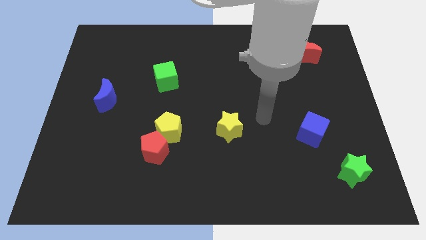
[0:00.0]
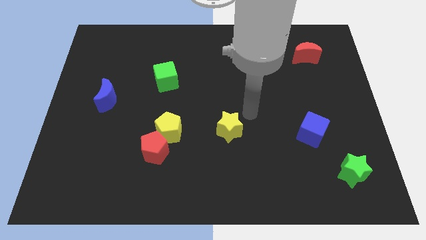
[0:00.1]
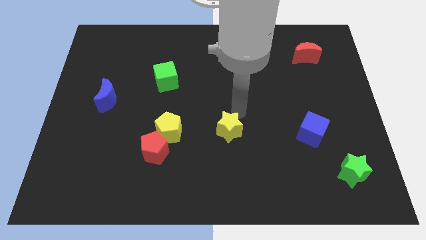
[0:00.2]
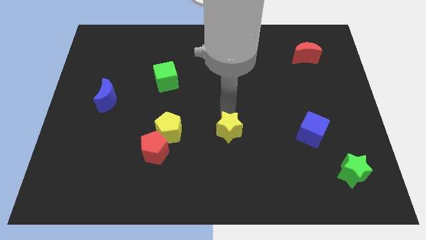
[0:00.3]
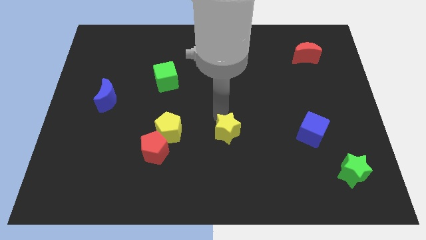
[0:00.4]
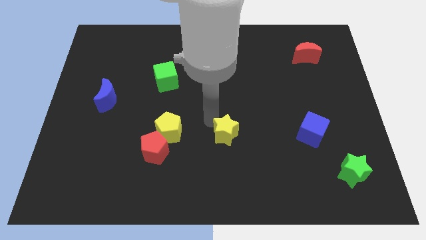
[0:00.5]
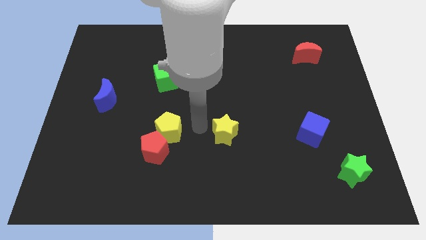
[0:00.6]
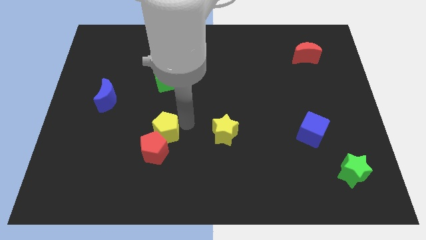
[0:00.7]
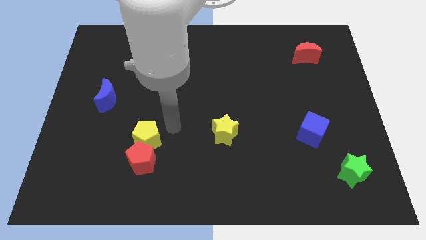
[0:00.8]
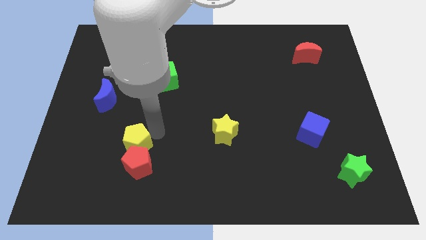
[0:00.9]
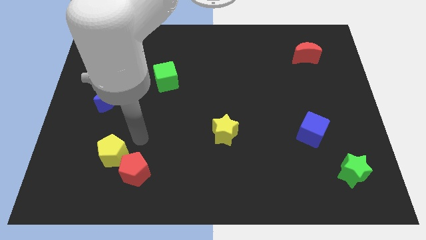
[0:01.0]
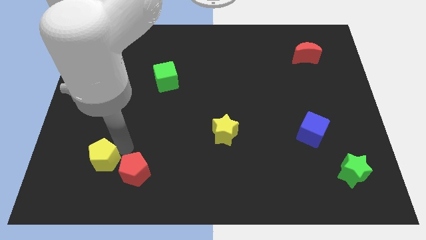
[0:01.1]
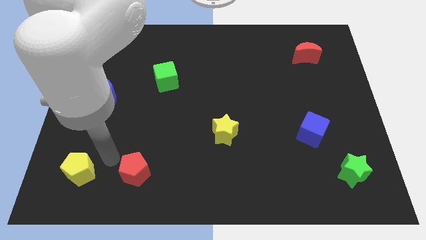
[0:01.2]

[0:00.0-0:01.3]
move the red pentagon away from the yellow pentagon

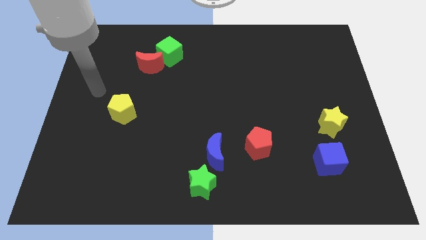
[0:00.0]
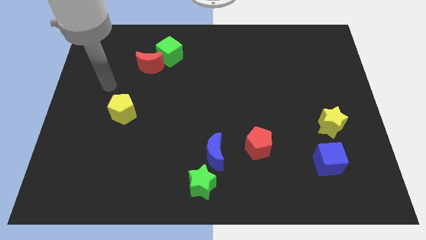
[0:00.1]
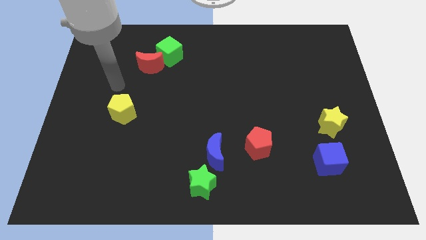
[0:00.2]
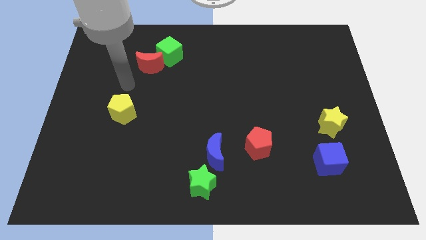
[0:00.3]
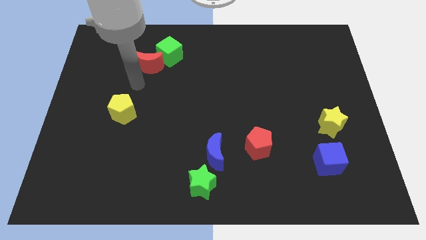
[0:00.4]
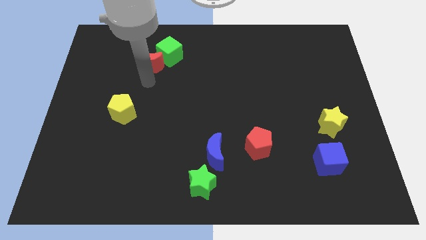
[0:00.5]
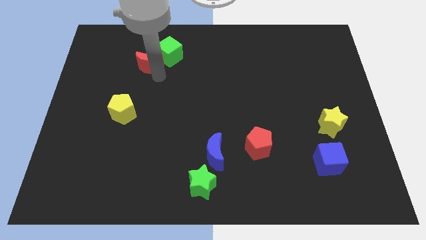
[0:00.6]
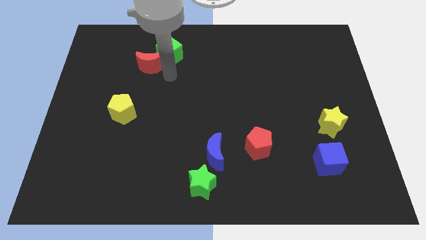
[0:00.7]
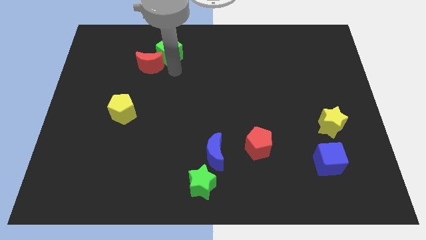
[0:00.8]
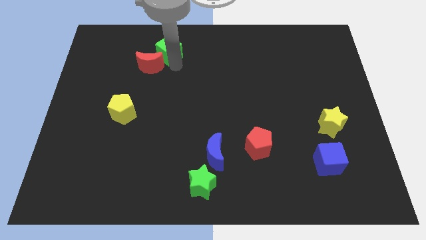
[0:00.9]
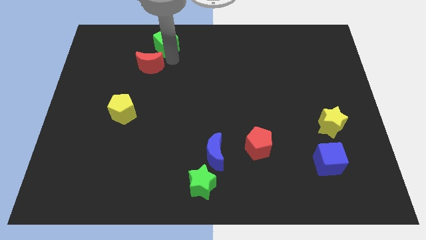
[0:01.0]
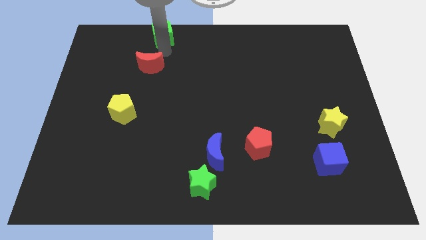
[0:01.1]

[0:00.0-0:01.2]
move the red moon away from the green cube

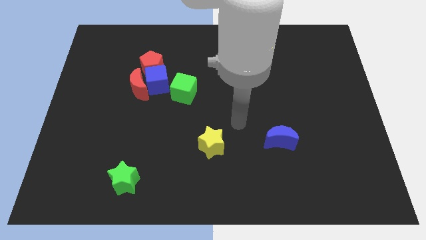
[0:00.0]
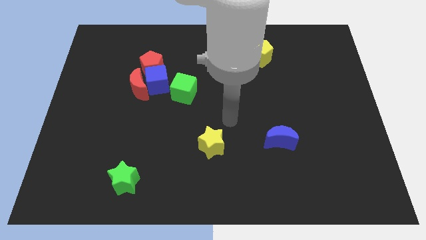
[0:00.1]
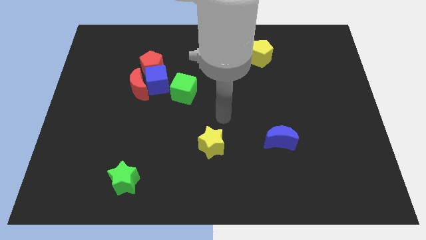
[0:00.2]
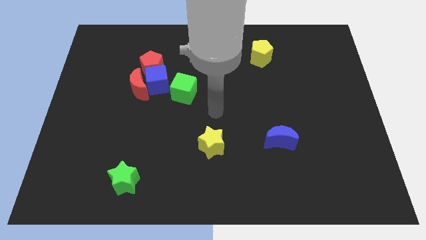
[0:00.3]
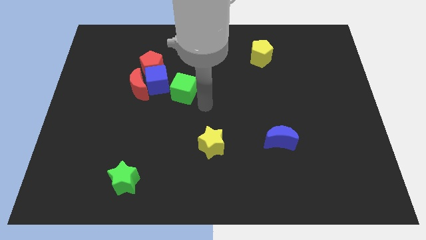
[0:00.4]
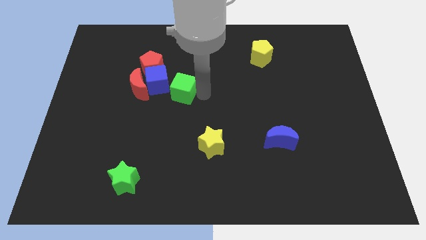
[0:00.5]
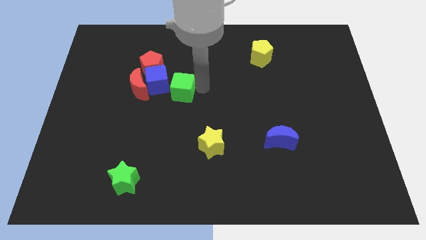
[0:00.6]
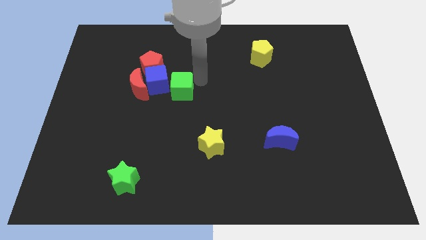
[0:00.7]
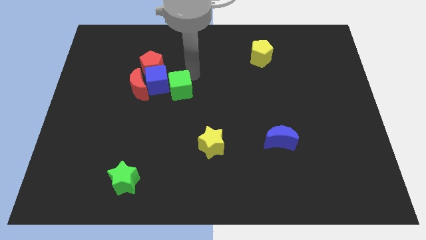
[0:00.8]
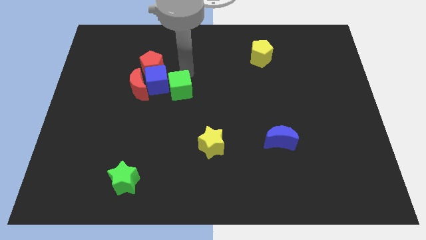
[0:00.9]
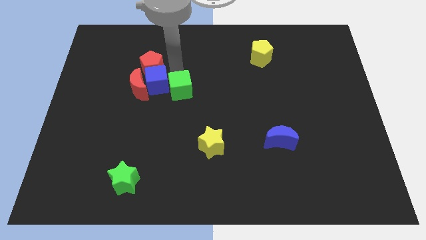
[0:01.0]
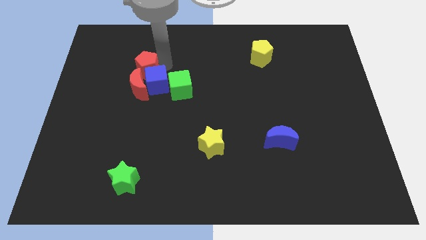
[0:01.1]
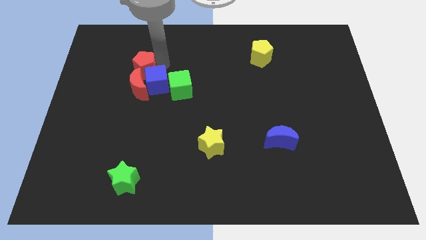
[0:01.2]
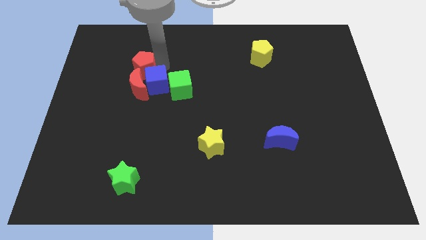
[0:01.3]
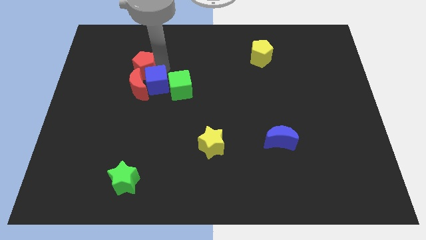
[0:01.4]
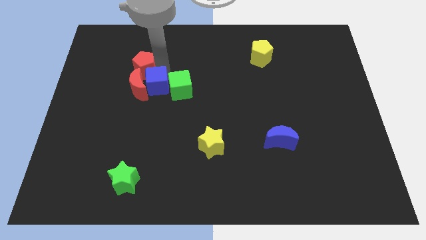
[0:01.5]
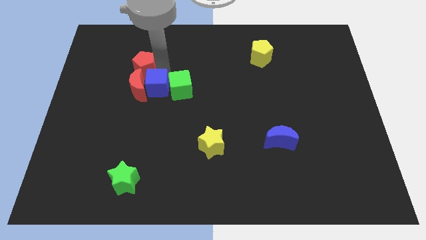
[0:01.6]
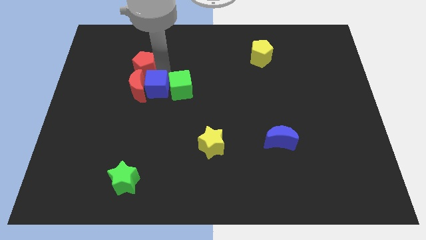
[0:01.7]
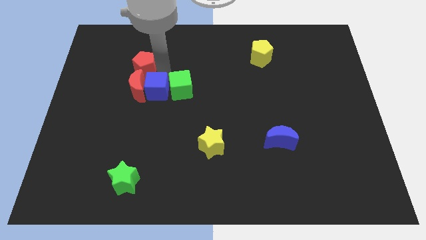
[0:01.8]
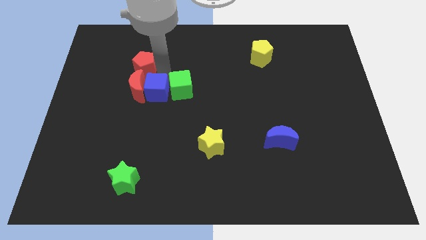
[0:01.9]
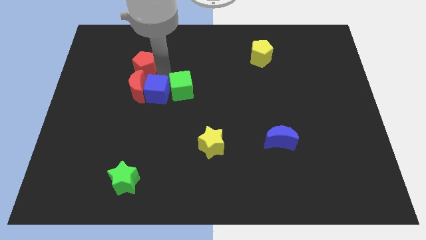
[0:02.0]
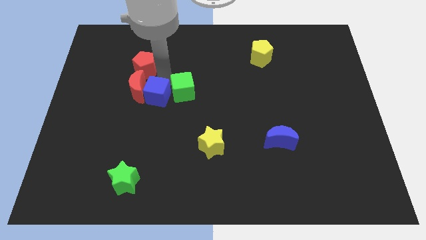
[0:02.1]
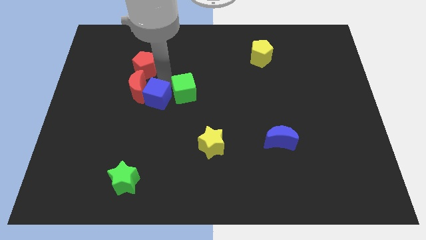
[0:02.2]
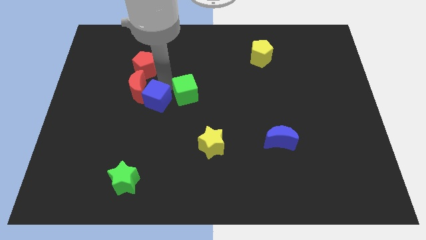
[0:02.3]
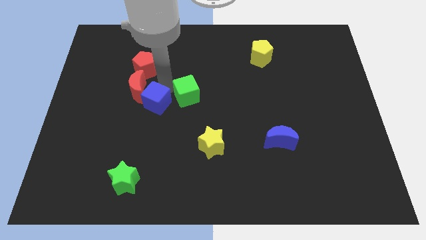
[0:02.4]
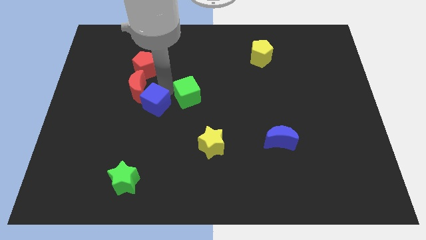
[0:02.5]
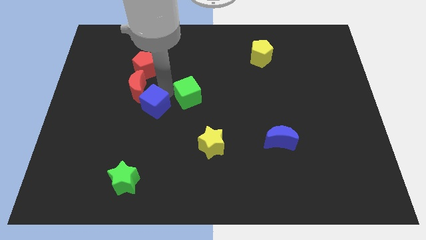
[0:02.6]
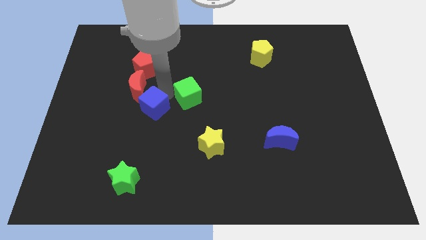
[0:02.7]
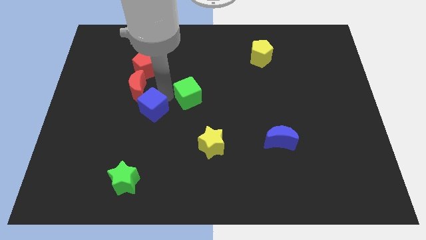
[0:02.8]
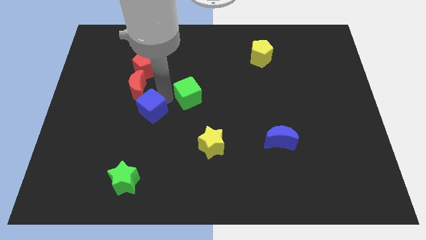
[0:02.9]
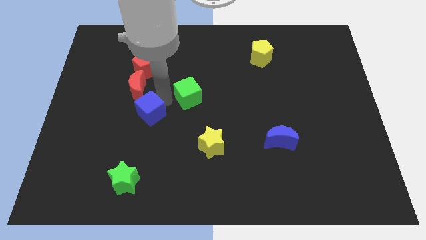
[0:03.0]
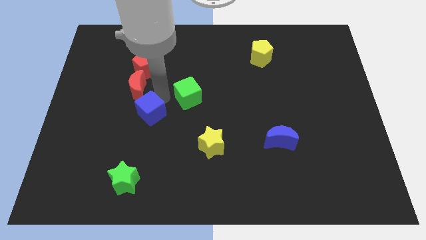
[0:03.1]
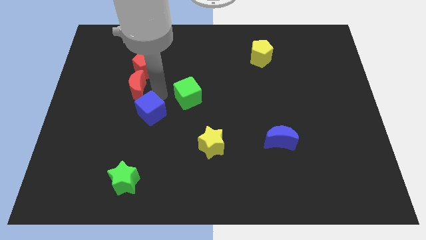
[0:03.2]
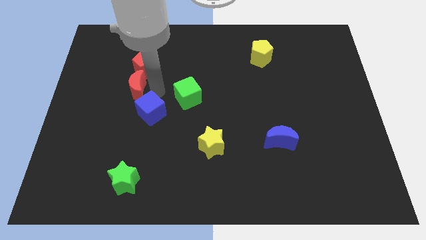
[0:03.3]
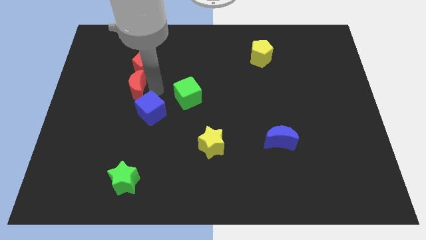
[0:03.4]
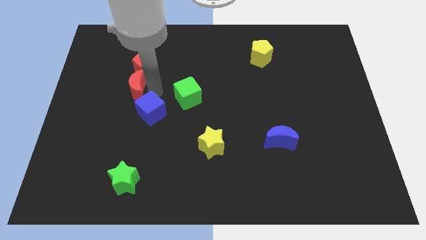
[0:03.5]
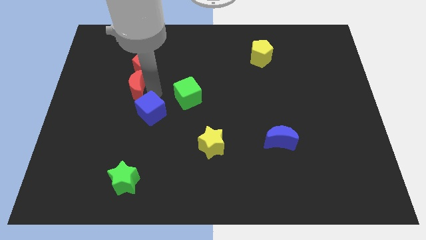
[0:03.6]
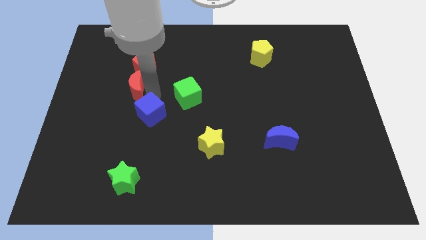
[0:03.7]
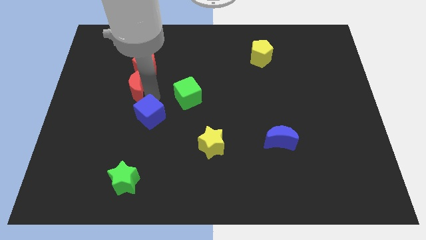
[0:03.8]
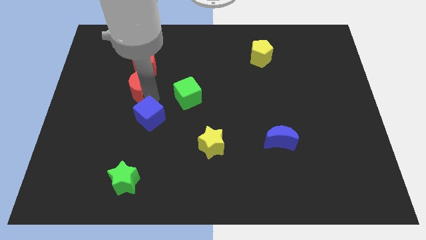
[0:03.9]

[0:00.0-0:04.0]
move the blue cube away from the red moon, red pentagon, and green cube

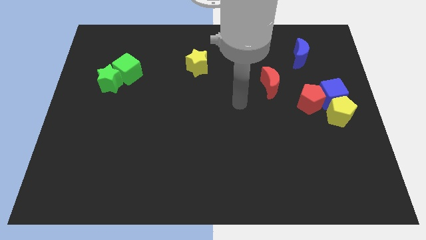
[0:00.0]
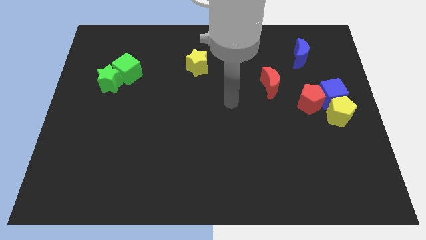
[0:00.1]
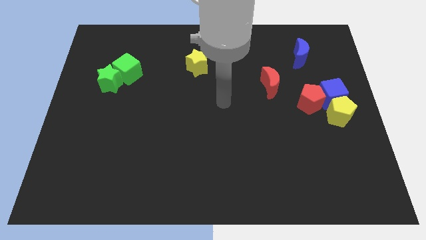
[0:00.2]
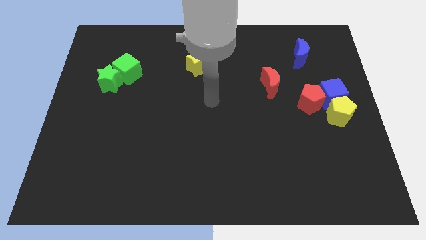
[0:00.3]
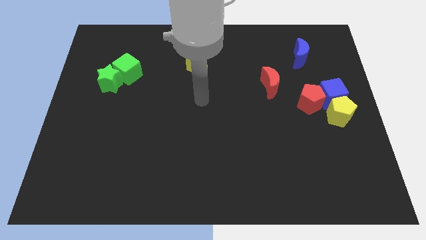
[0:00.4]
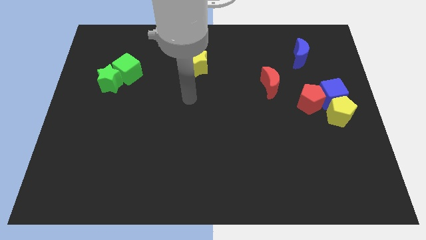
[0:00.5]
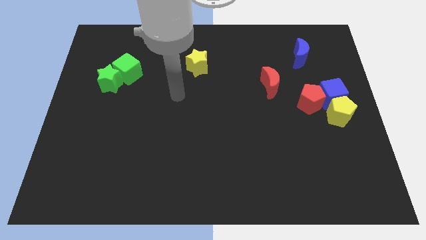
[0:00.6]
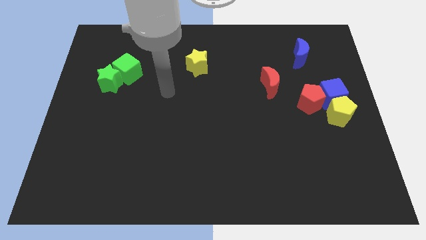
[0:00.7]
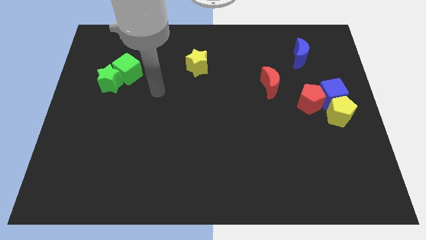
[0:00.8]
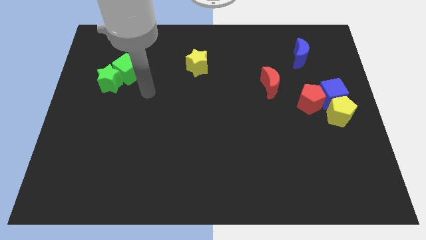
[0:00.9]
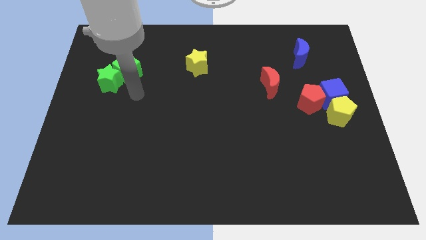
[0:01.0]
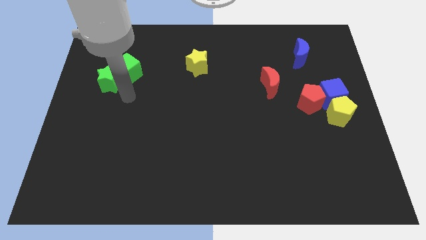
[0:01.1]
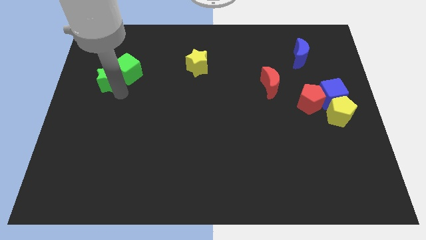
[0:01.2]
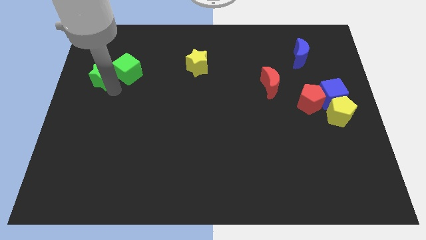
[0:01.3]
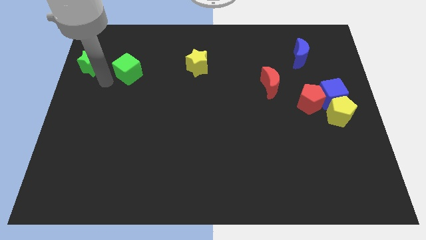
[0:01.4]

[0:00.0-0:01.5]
separate the green cube from the green star

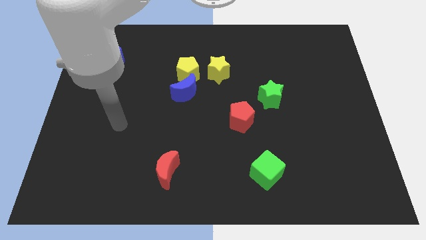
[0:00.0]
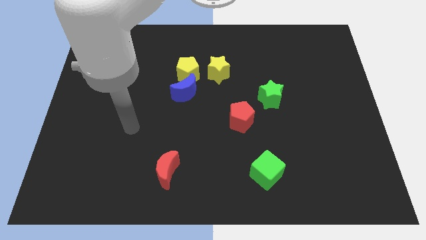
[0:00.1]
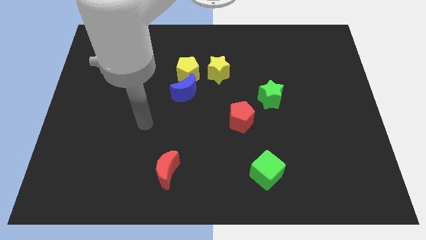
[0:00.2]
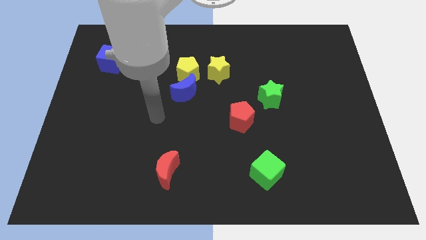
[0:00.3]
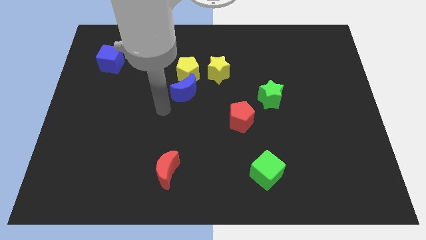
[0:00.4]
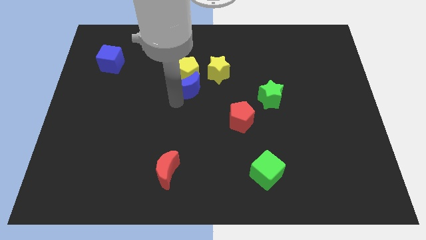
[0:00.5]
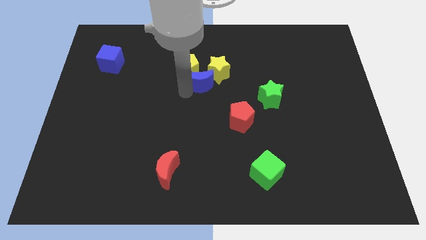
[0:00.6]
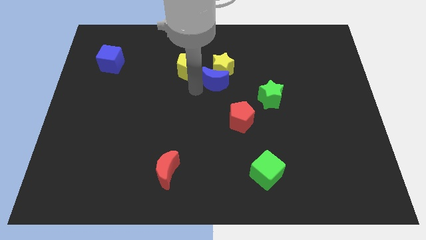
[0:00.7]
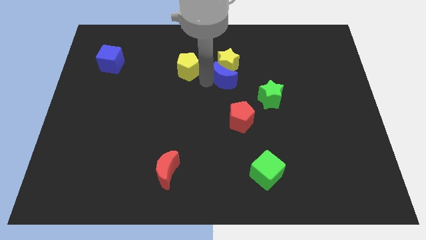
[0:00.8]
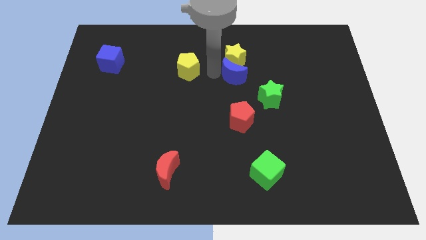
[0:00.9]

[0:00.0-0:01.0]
move the yellow pentagon away from the blue moon and yellow star
